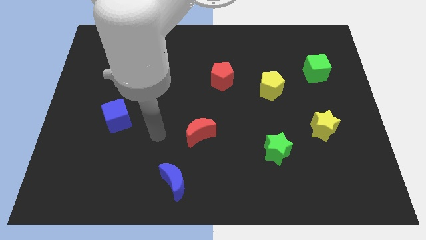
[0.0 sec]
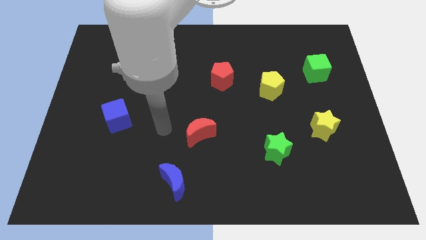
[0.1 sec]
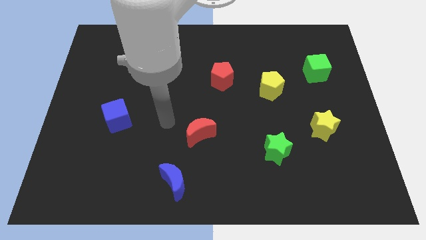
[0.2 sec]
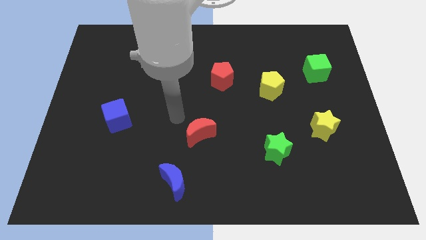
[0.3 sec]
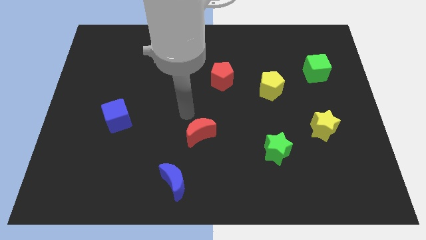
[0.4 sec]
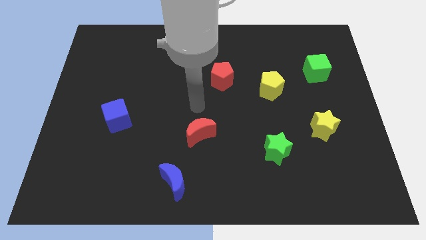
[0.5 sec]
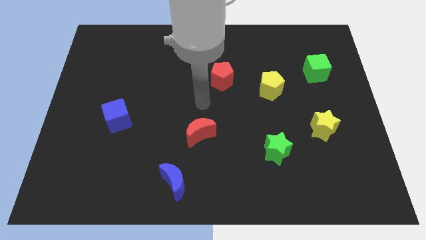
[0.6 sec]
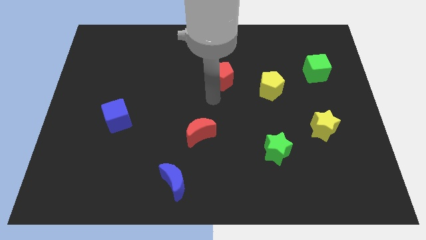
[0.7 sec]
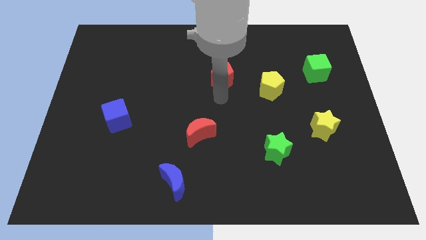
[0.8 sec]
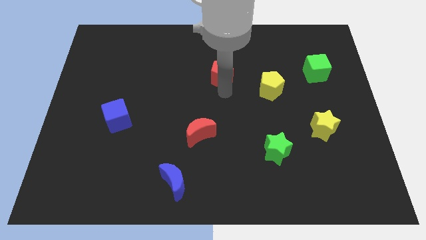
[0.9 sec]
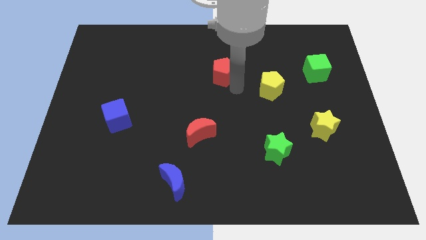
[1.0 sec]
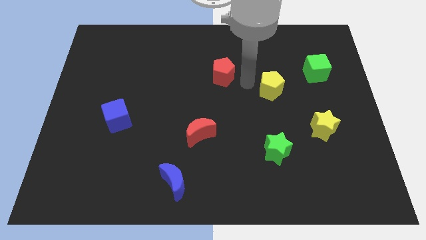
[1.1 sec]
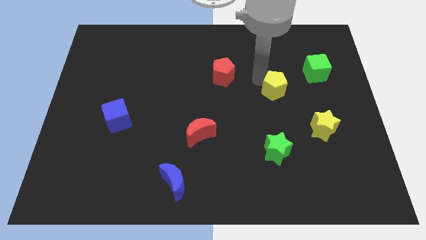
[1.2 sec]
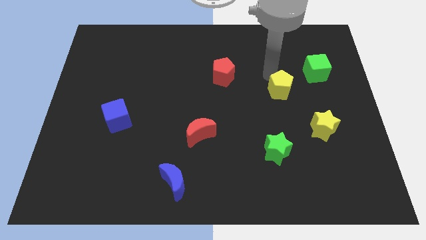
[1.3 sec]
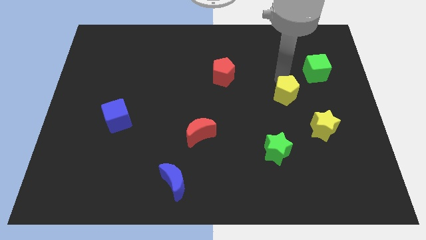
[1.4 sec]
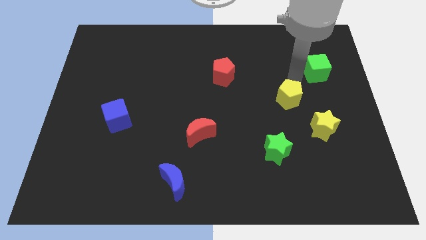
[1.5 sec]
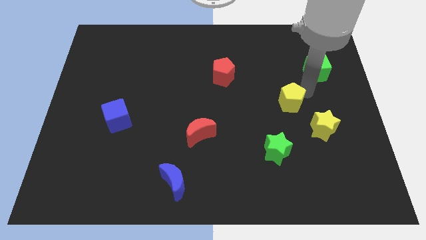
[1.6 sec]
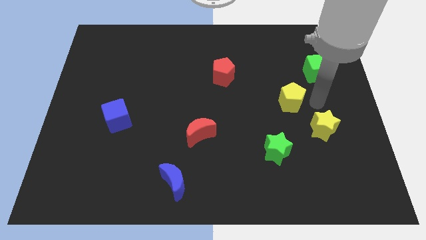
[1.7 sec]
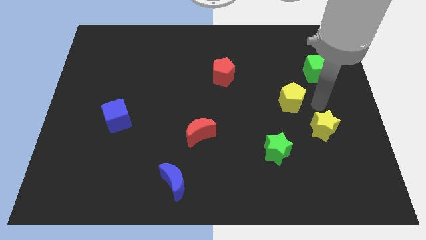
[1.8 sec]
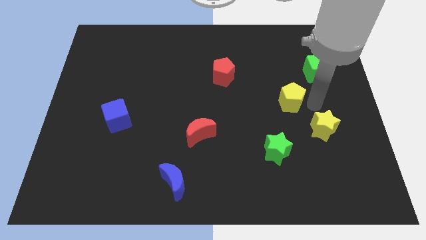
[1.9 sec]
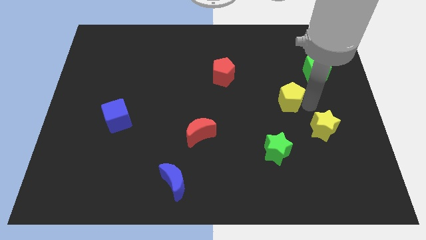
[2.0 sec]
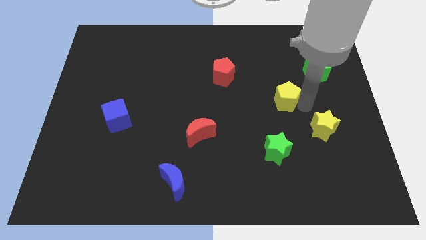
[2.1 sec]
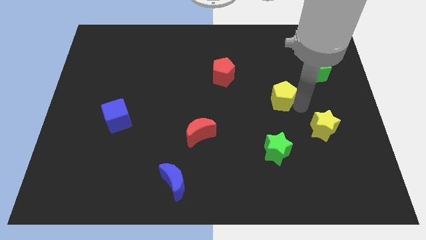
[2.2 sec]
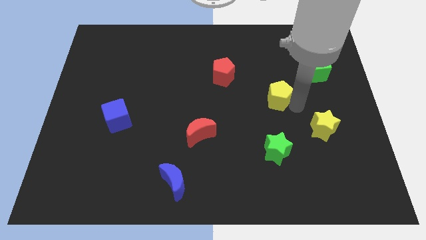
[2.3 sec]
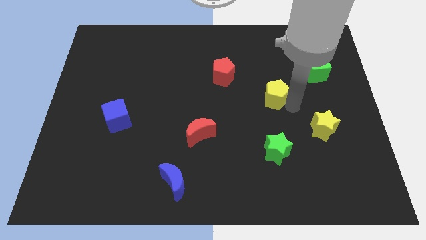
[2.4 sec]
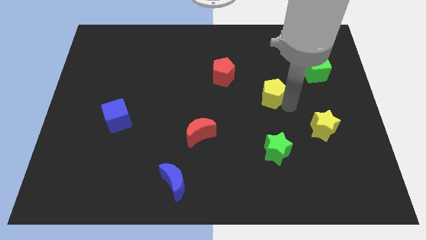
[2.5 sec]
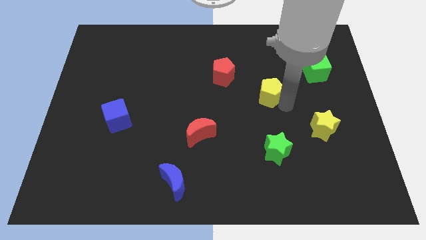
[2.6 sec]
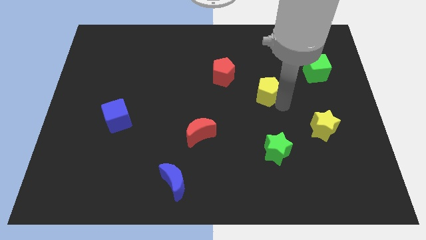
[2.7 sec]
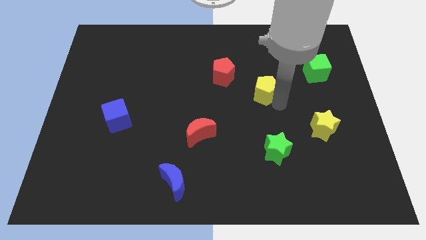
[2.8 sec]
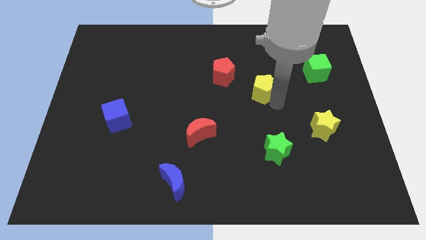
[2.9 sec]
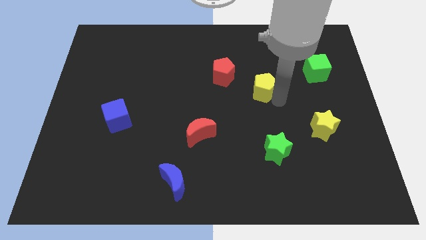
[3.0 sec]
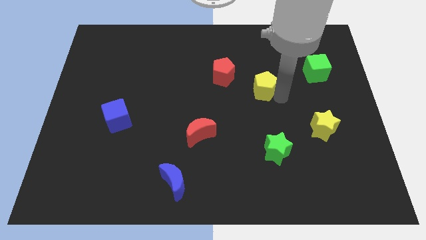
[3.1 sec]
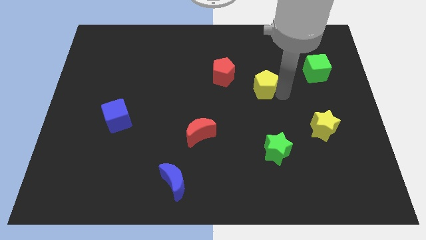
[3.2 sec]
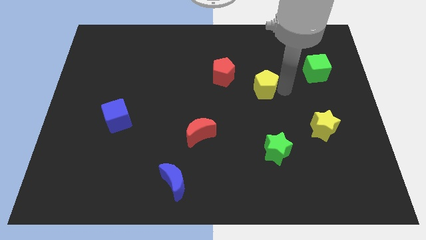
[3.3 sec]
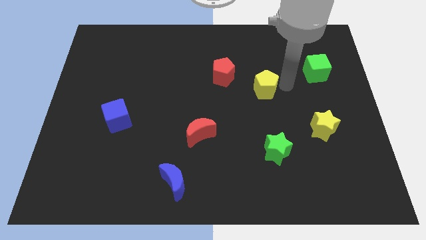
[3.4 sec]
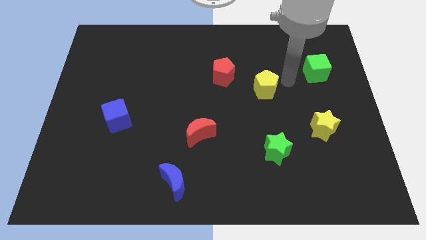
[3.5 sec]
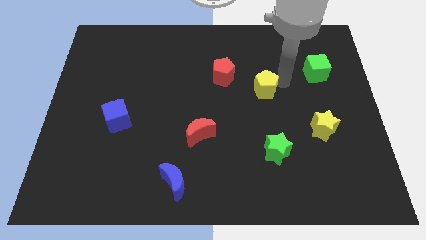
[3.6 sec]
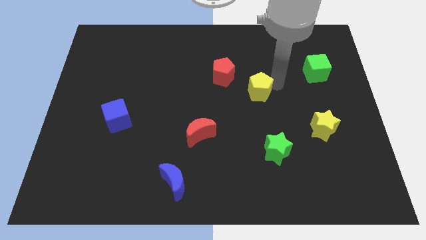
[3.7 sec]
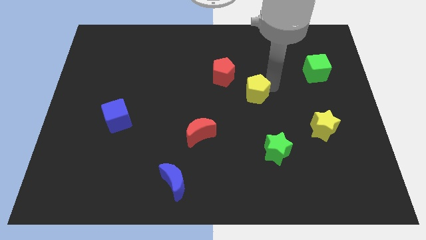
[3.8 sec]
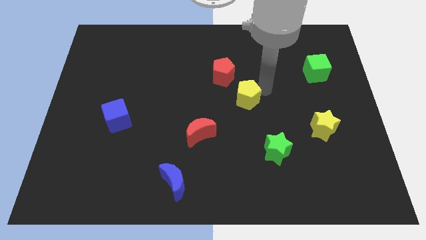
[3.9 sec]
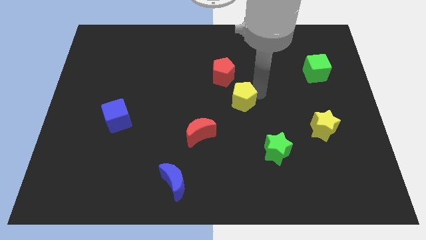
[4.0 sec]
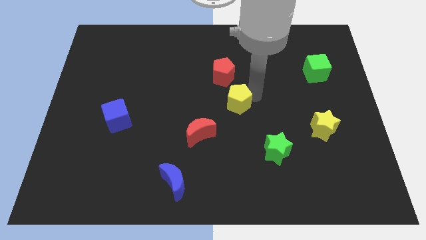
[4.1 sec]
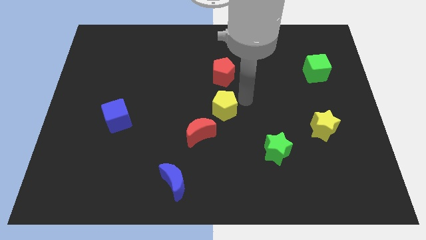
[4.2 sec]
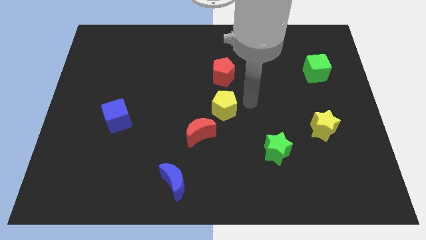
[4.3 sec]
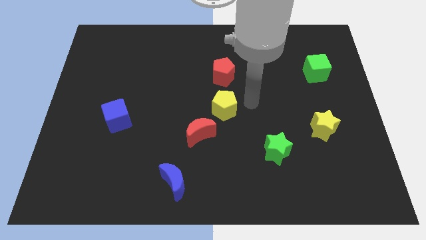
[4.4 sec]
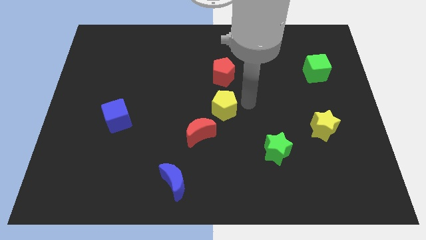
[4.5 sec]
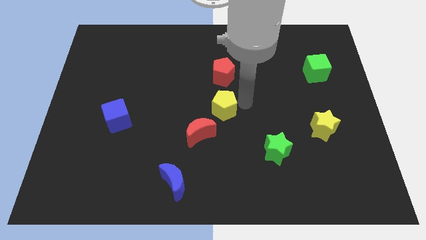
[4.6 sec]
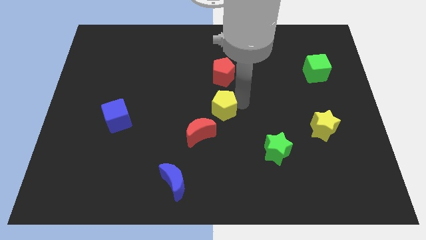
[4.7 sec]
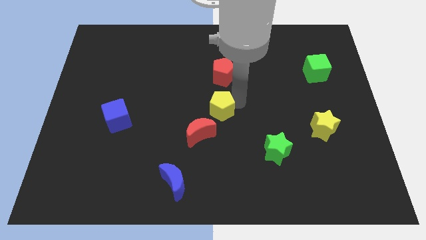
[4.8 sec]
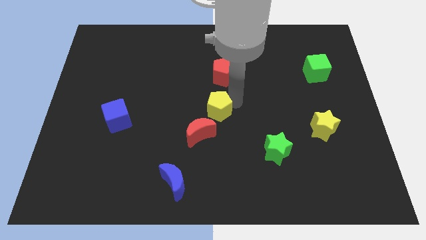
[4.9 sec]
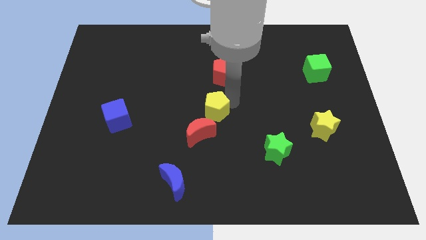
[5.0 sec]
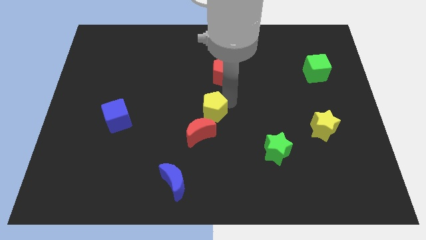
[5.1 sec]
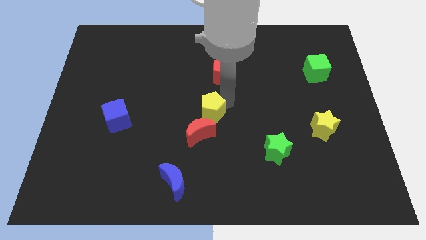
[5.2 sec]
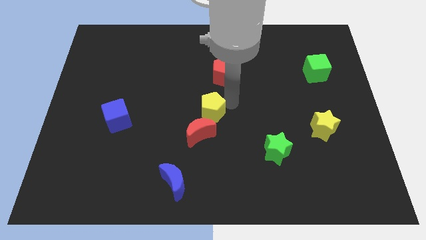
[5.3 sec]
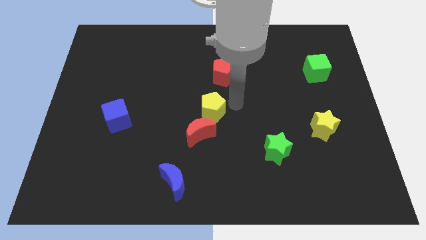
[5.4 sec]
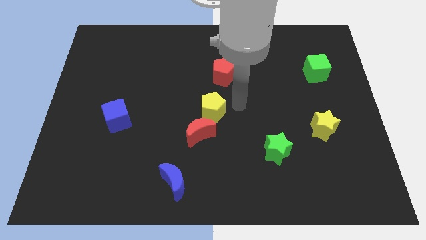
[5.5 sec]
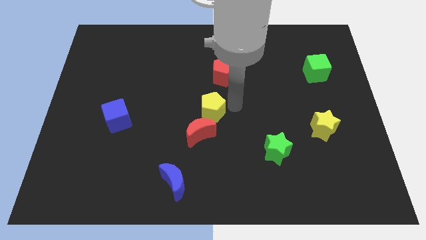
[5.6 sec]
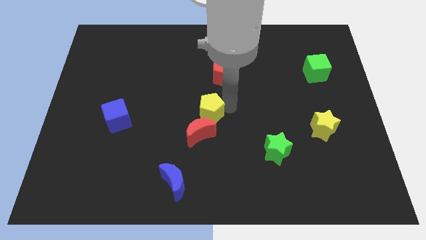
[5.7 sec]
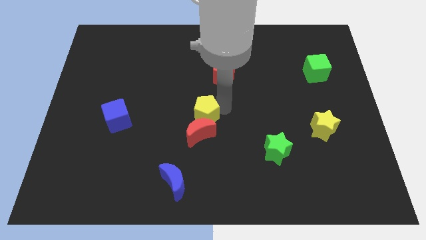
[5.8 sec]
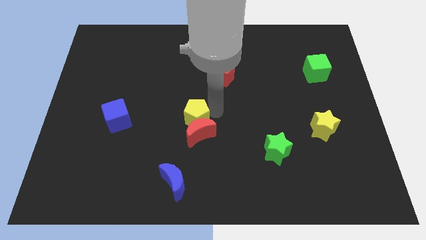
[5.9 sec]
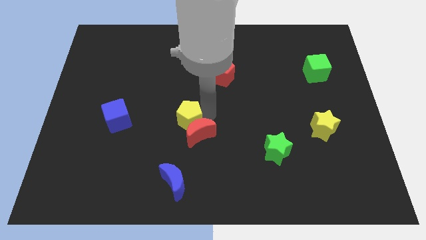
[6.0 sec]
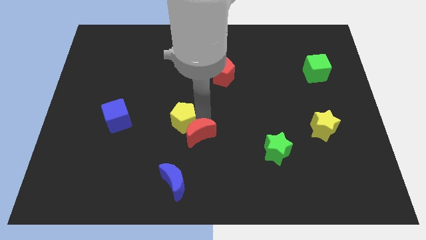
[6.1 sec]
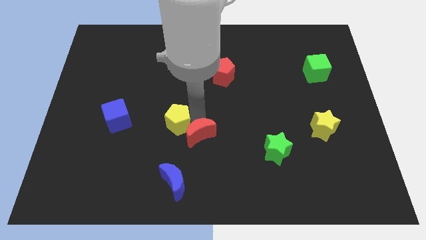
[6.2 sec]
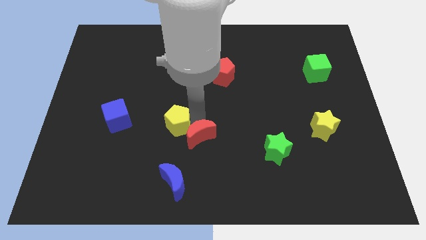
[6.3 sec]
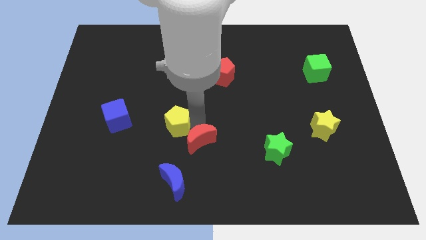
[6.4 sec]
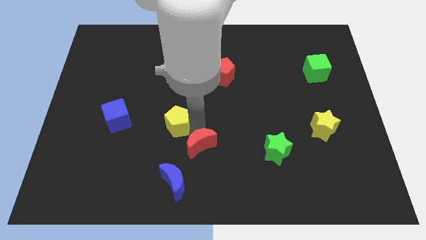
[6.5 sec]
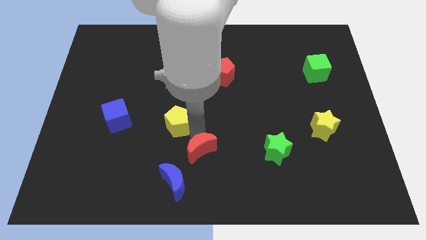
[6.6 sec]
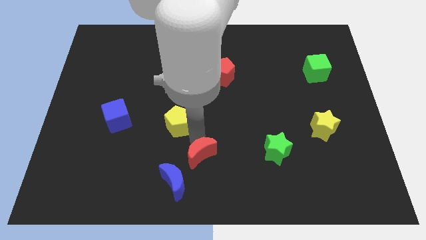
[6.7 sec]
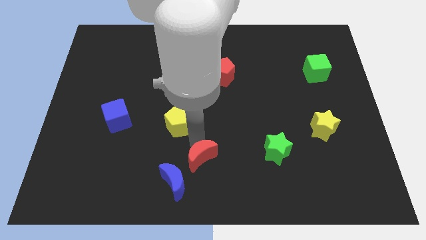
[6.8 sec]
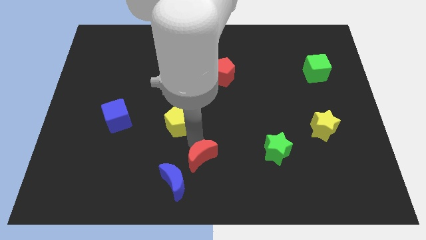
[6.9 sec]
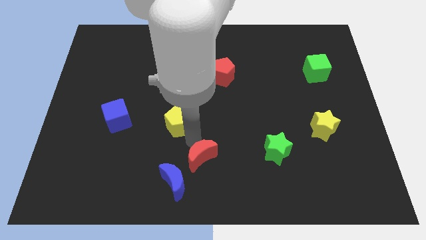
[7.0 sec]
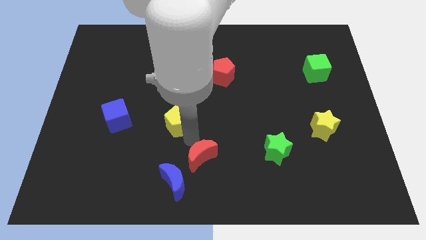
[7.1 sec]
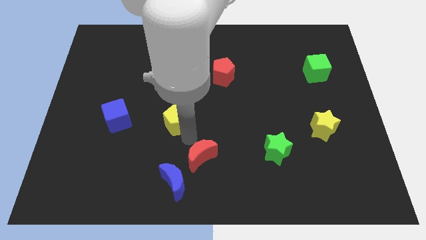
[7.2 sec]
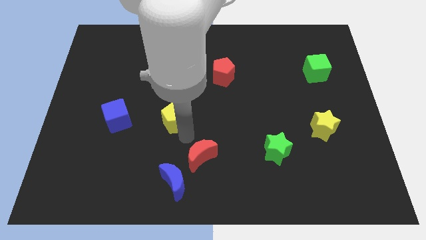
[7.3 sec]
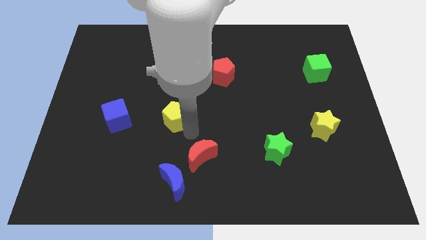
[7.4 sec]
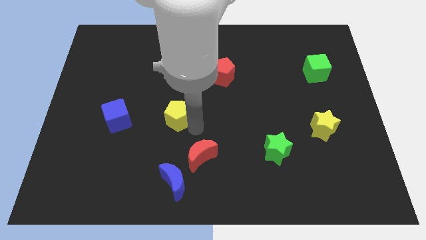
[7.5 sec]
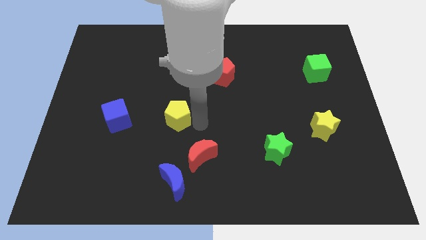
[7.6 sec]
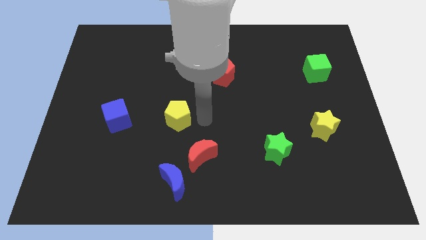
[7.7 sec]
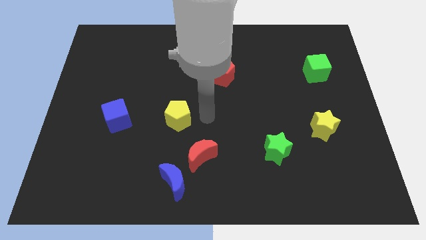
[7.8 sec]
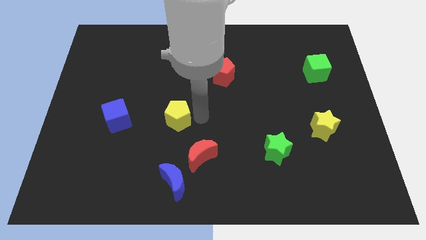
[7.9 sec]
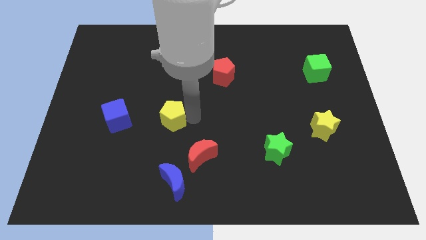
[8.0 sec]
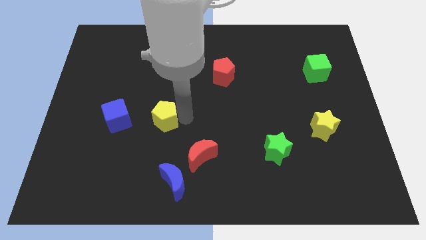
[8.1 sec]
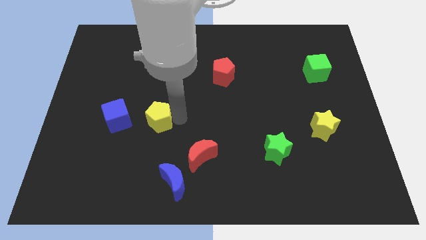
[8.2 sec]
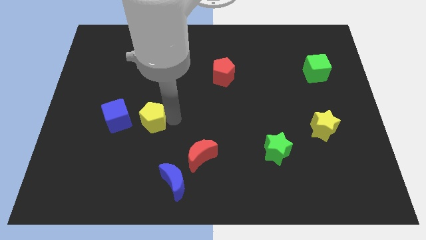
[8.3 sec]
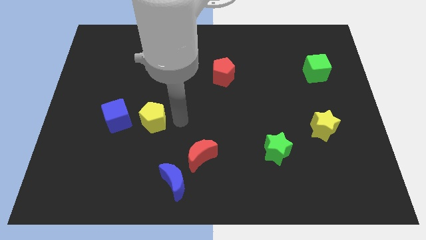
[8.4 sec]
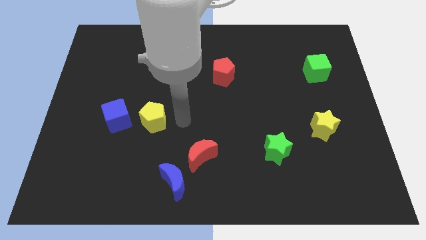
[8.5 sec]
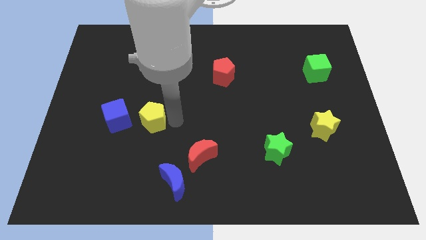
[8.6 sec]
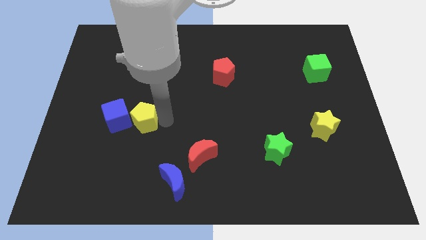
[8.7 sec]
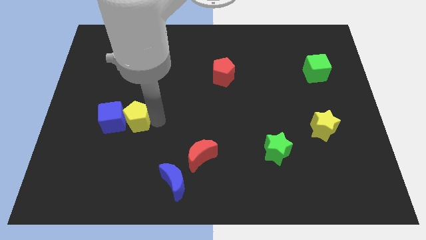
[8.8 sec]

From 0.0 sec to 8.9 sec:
slide the yellow pentagon next to the blue cube
